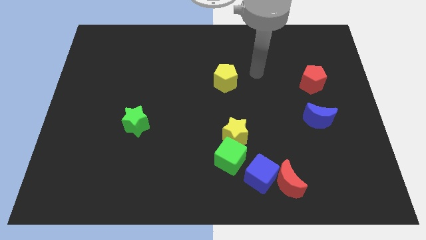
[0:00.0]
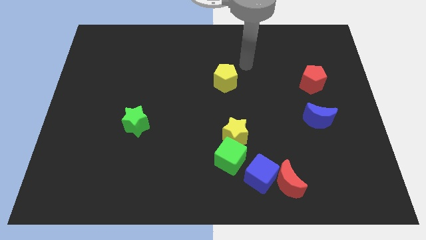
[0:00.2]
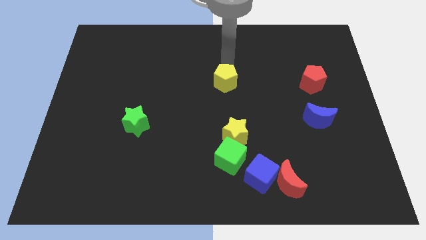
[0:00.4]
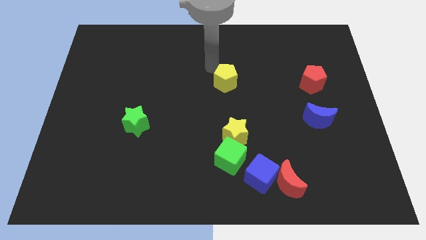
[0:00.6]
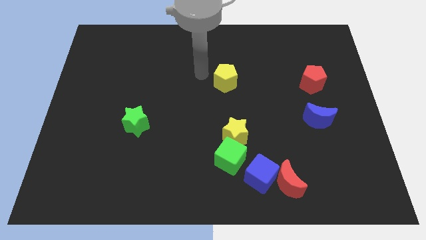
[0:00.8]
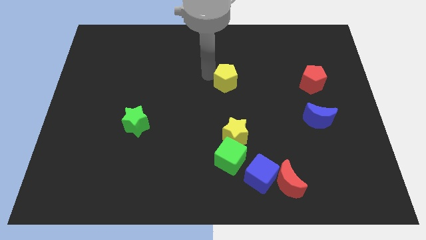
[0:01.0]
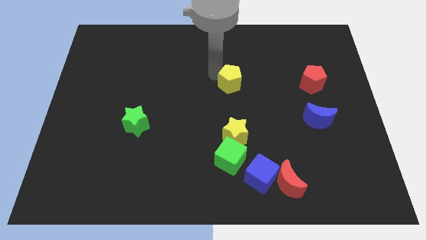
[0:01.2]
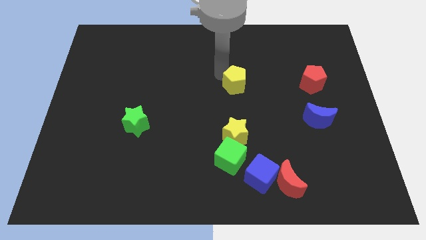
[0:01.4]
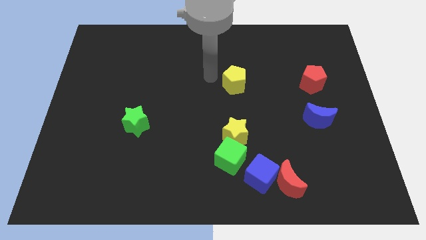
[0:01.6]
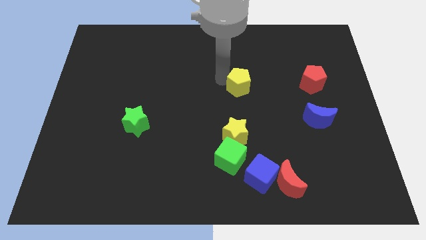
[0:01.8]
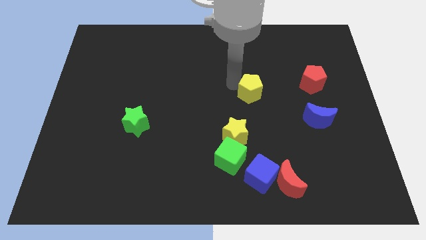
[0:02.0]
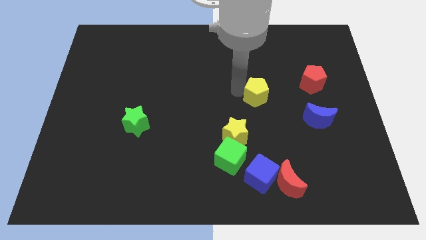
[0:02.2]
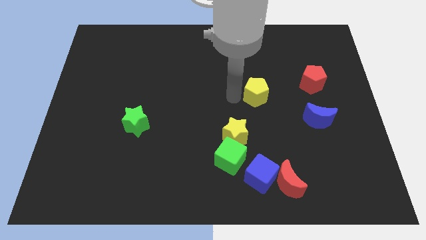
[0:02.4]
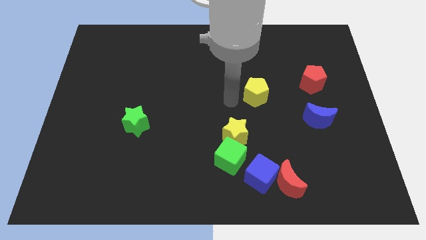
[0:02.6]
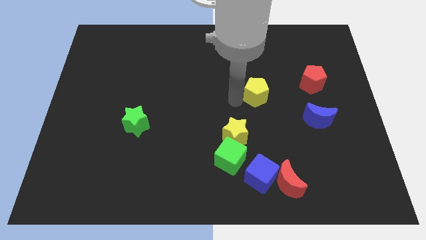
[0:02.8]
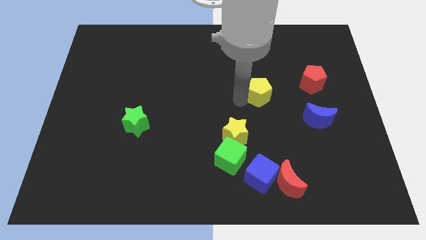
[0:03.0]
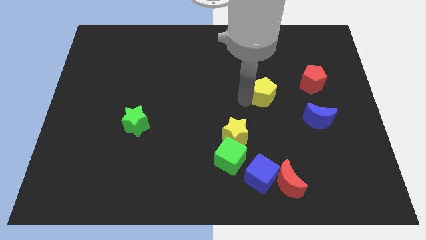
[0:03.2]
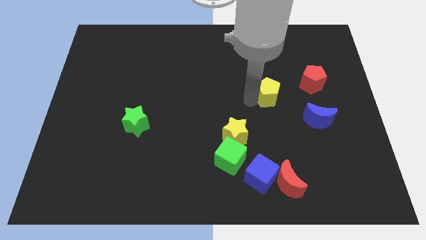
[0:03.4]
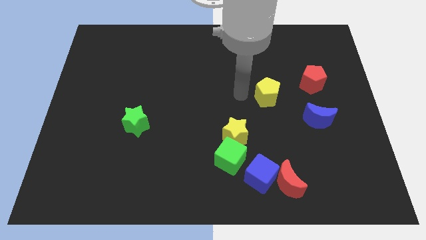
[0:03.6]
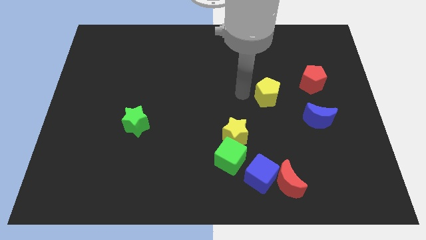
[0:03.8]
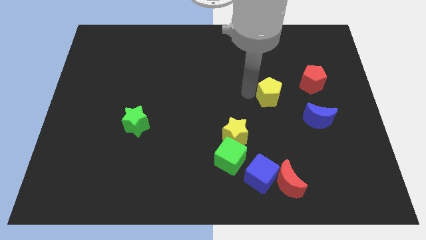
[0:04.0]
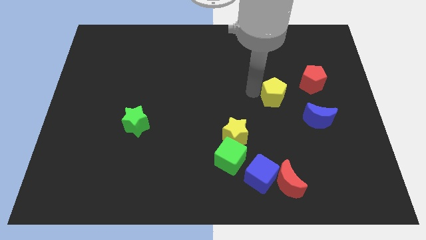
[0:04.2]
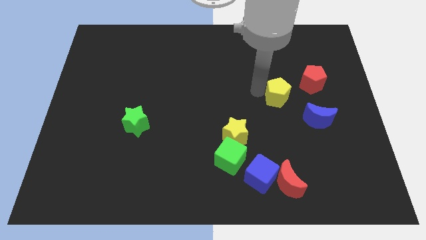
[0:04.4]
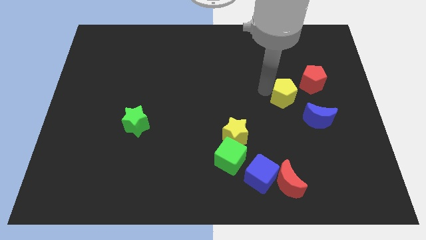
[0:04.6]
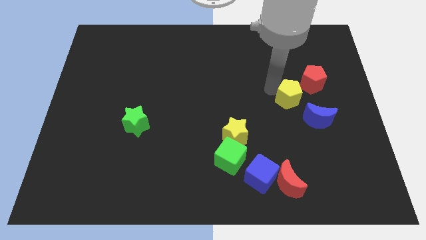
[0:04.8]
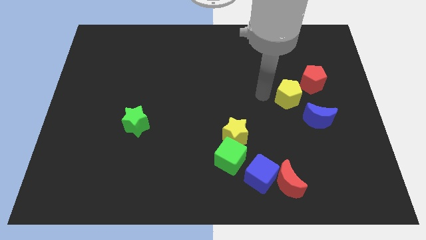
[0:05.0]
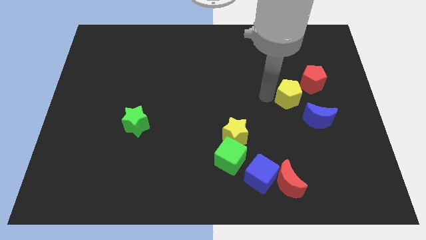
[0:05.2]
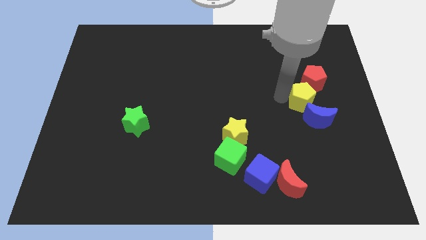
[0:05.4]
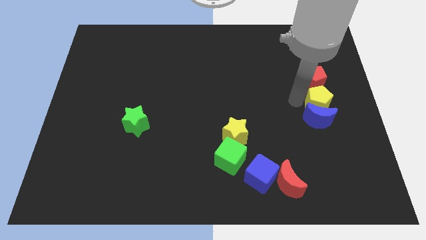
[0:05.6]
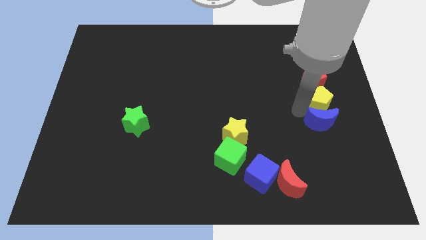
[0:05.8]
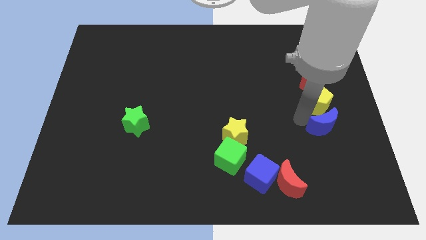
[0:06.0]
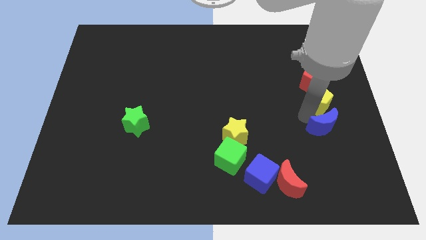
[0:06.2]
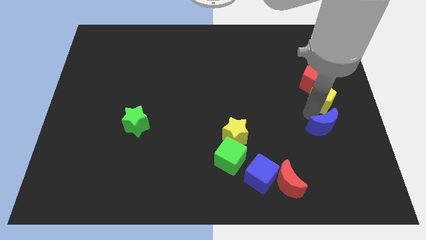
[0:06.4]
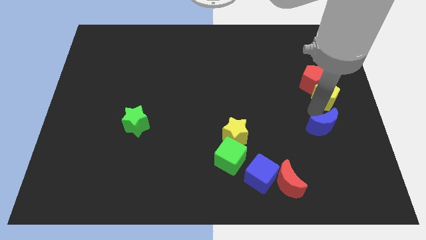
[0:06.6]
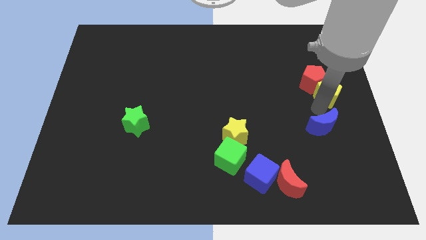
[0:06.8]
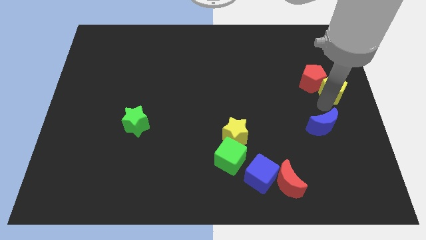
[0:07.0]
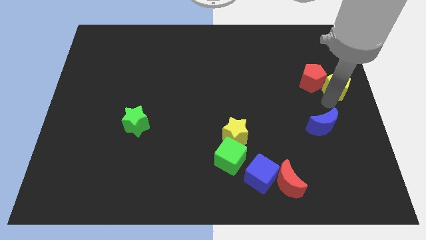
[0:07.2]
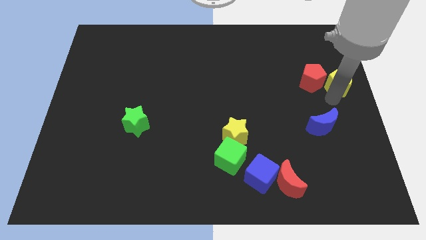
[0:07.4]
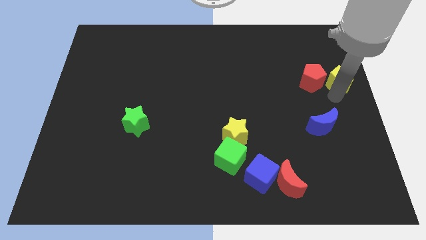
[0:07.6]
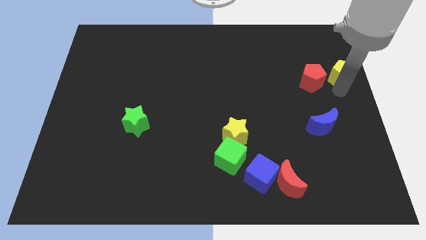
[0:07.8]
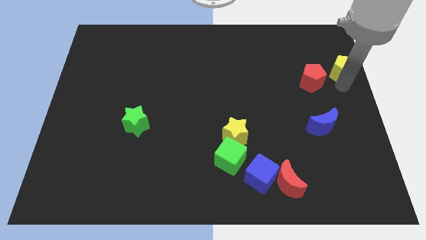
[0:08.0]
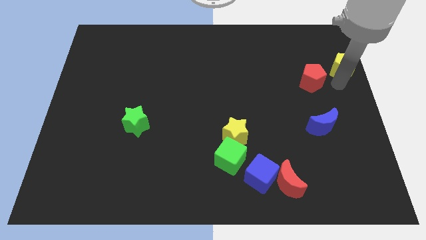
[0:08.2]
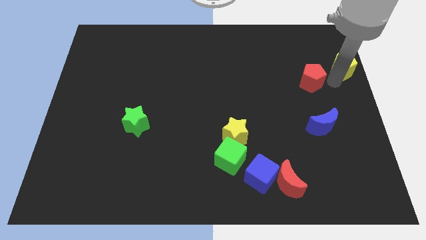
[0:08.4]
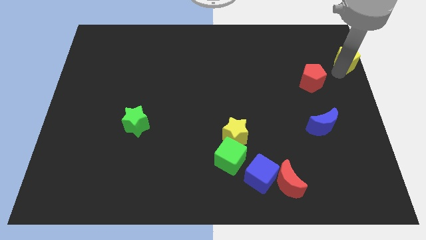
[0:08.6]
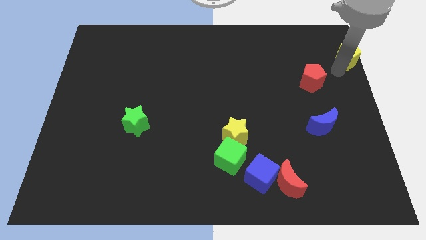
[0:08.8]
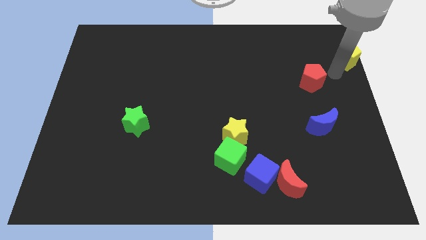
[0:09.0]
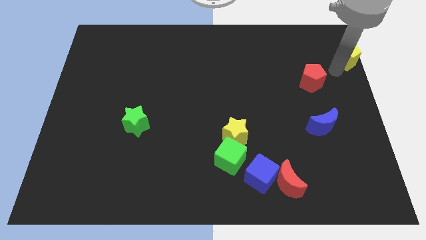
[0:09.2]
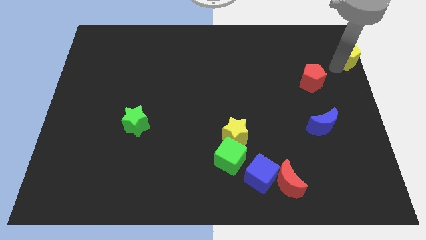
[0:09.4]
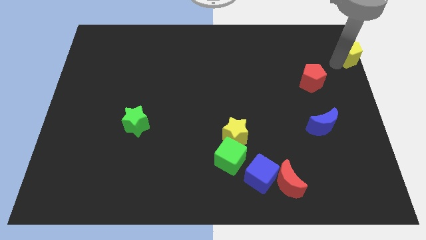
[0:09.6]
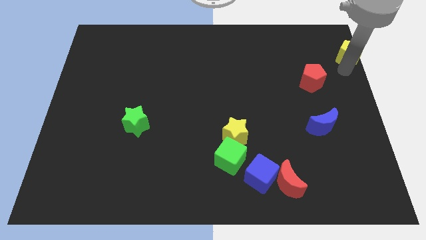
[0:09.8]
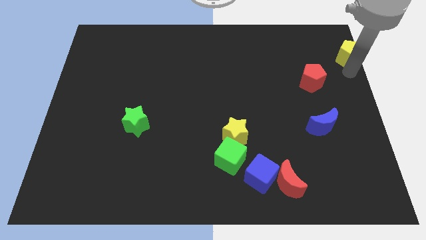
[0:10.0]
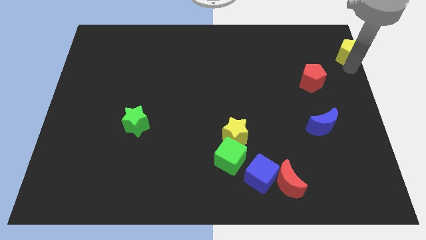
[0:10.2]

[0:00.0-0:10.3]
slide the yellow pentagon to the upper right corner

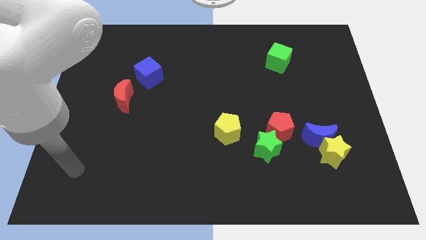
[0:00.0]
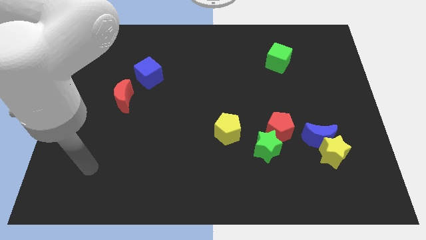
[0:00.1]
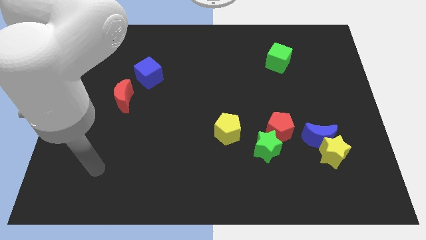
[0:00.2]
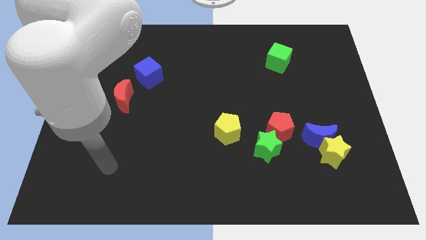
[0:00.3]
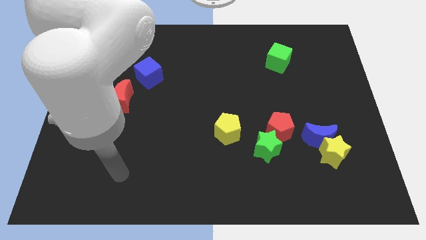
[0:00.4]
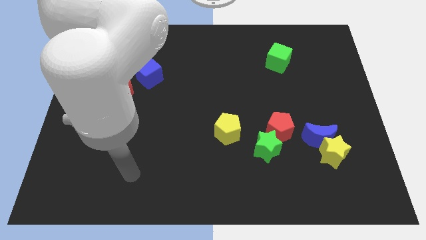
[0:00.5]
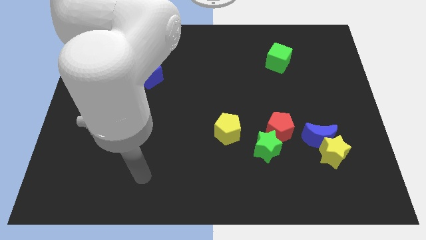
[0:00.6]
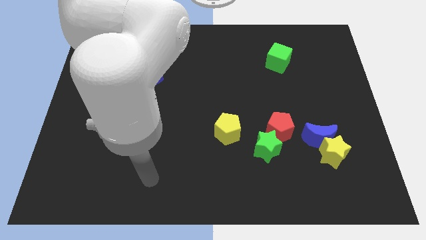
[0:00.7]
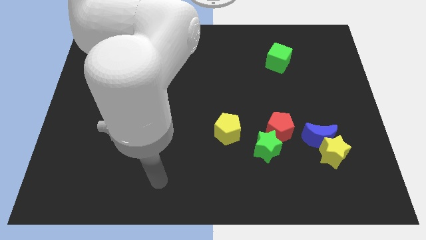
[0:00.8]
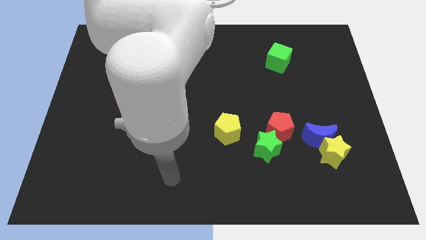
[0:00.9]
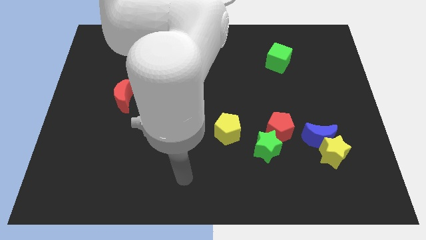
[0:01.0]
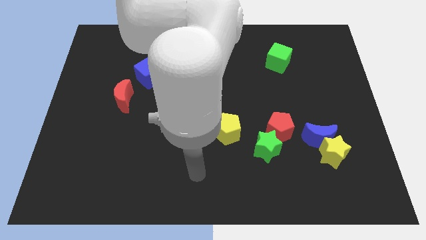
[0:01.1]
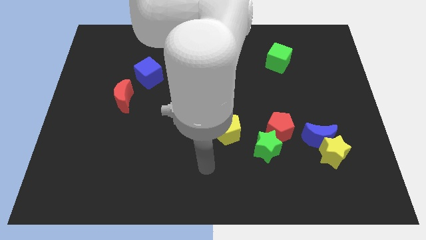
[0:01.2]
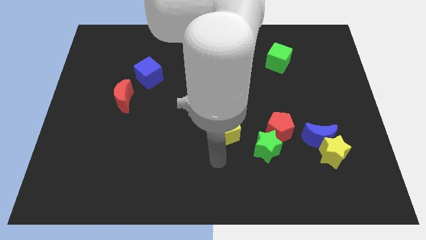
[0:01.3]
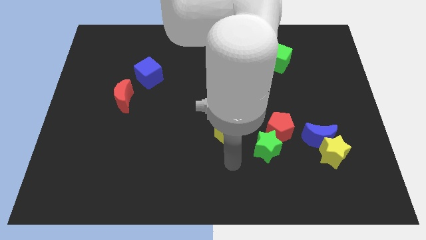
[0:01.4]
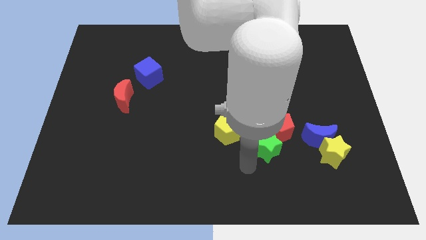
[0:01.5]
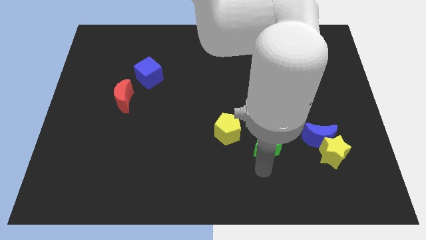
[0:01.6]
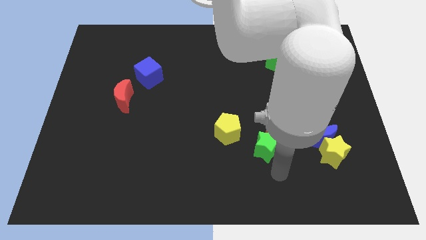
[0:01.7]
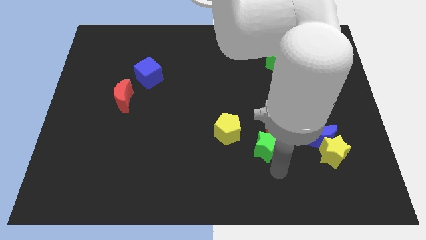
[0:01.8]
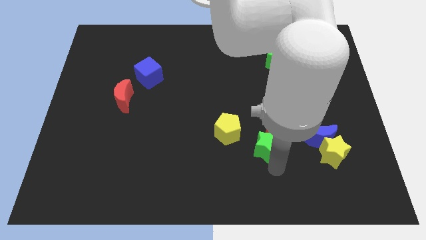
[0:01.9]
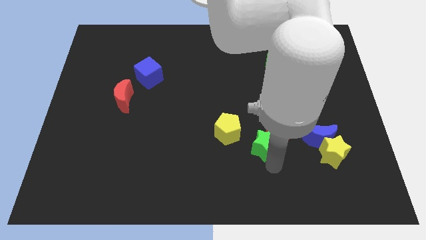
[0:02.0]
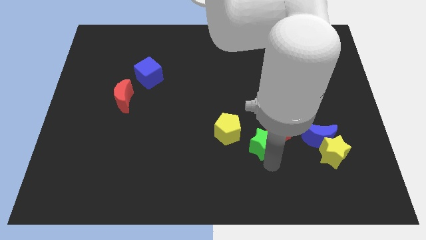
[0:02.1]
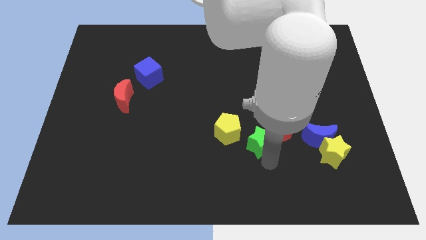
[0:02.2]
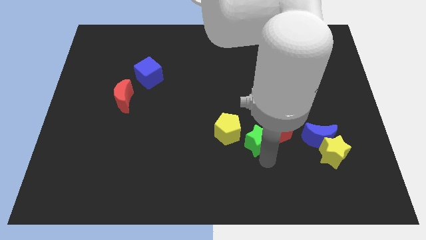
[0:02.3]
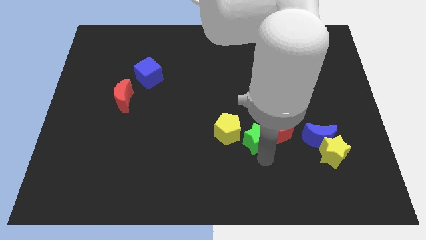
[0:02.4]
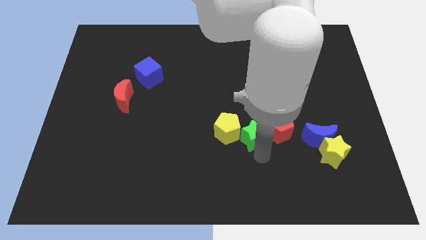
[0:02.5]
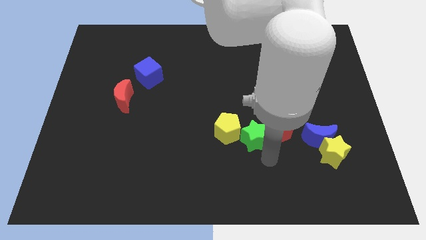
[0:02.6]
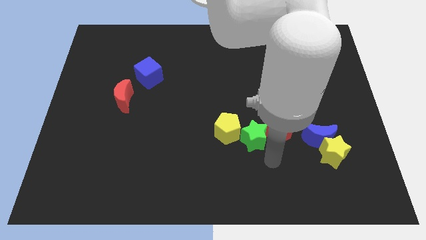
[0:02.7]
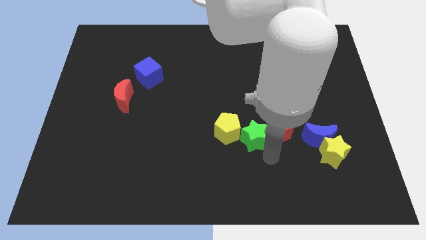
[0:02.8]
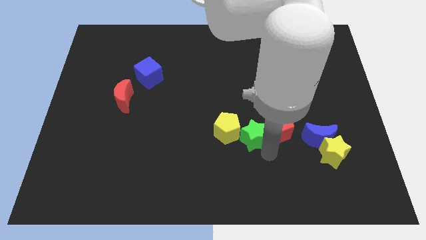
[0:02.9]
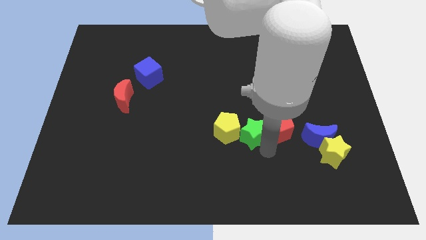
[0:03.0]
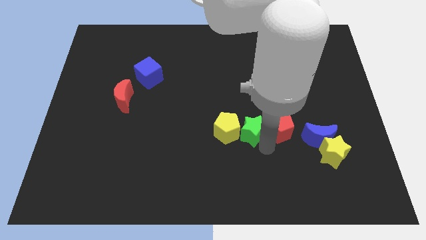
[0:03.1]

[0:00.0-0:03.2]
move the green star to the middle of the board
